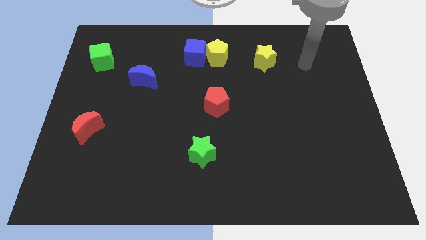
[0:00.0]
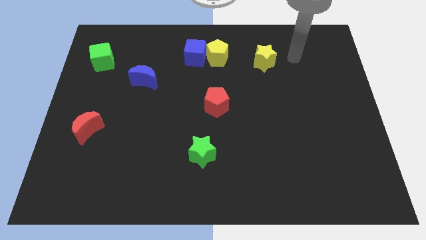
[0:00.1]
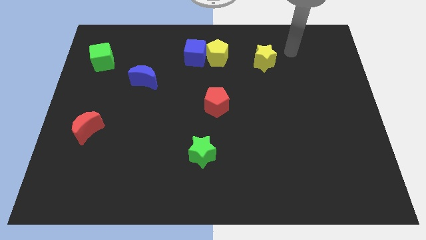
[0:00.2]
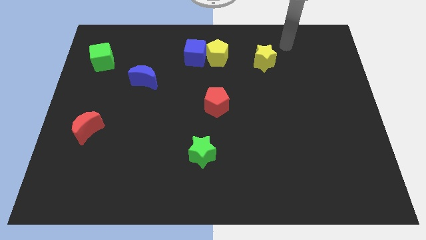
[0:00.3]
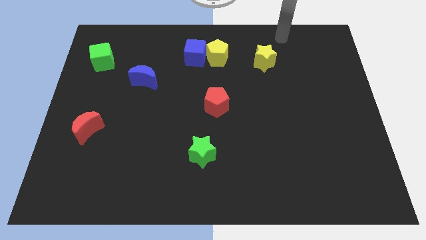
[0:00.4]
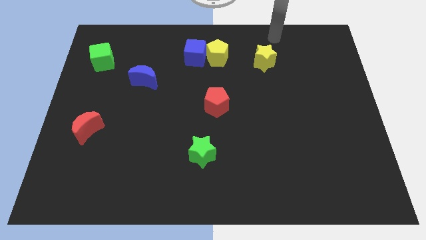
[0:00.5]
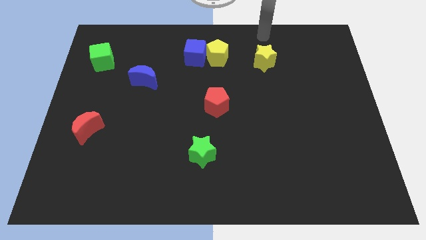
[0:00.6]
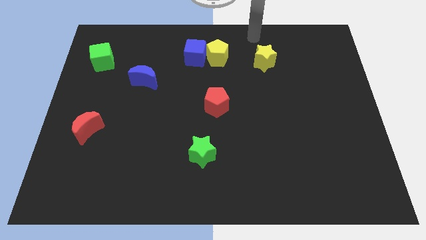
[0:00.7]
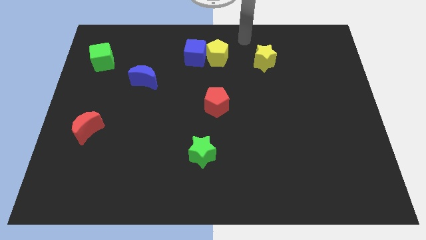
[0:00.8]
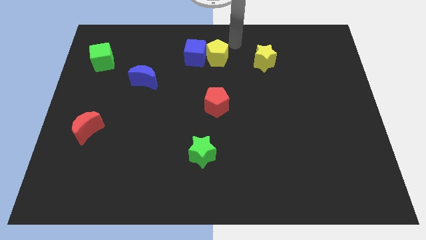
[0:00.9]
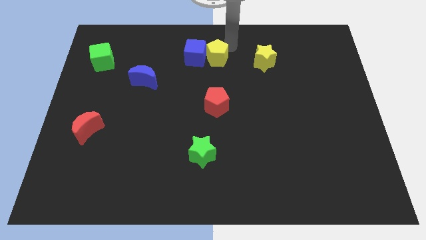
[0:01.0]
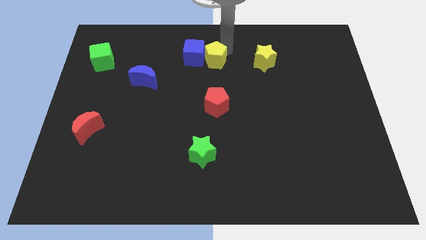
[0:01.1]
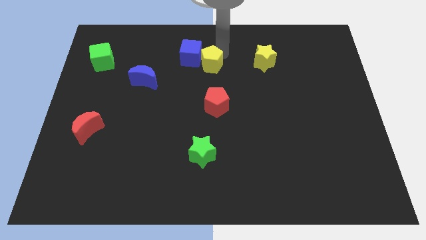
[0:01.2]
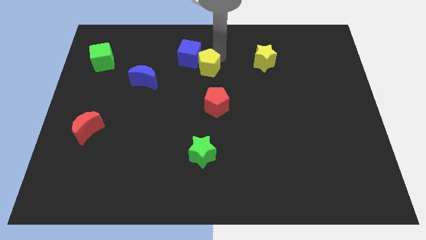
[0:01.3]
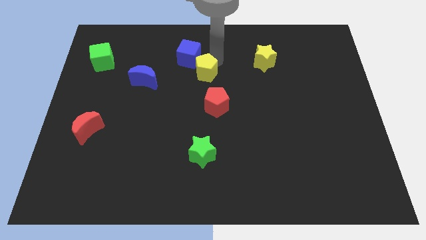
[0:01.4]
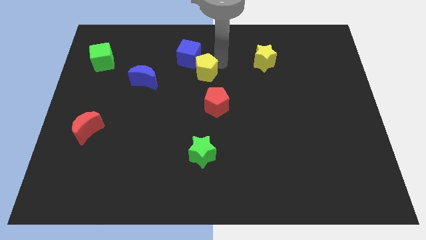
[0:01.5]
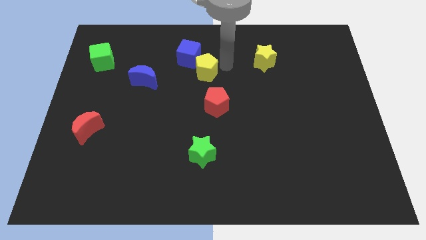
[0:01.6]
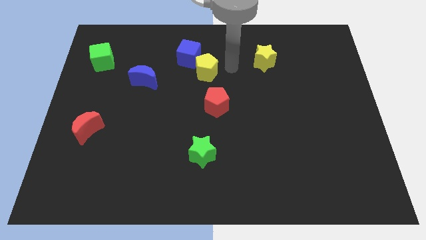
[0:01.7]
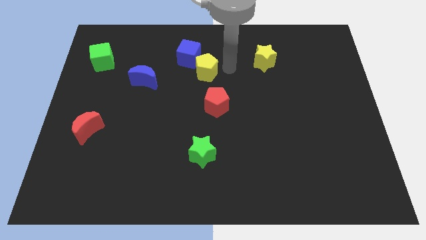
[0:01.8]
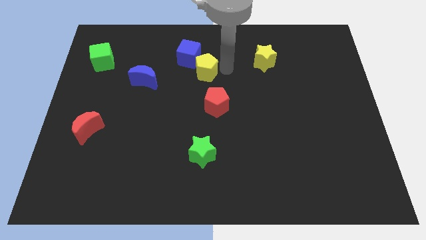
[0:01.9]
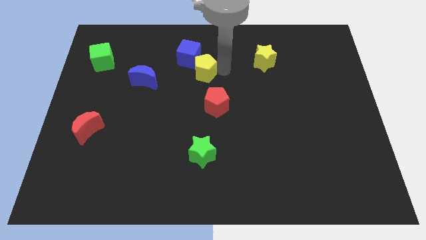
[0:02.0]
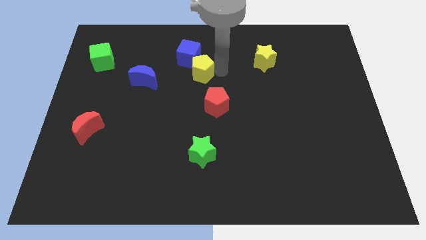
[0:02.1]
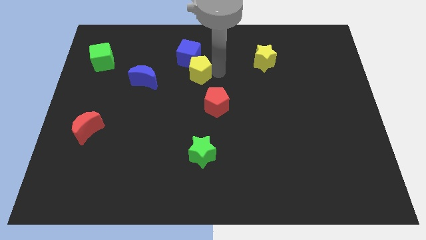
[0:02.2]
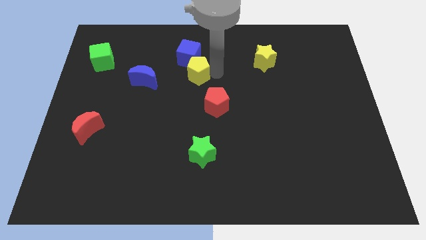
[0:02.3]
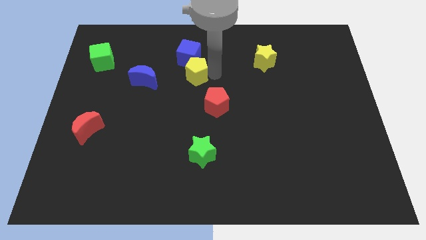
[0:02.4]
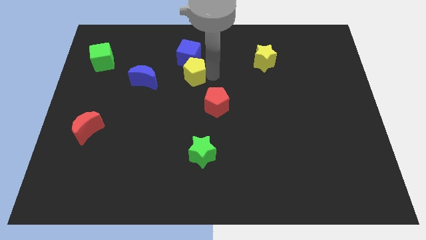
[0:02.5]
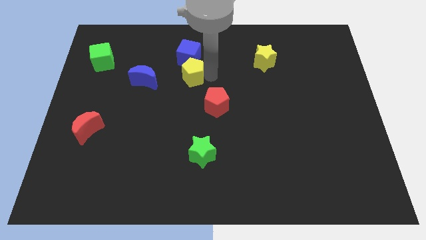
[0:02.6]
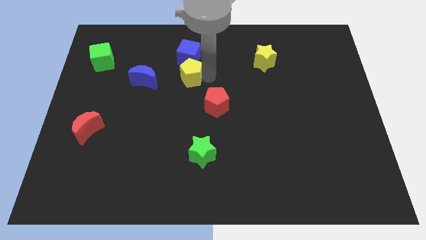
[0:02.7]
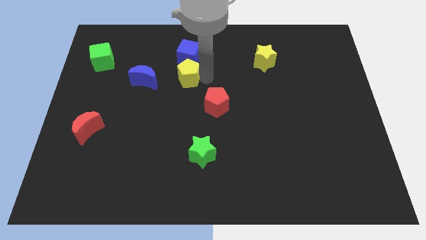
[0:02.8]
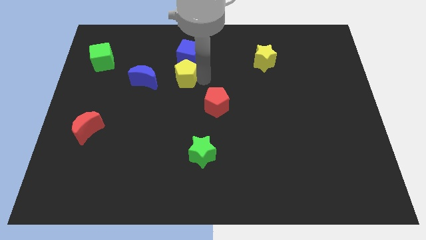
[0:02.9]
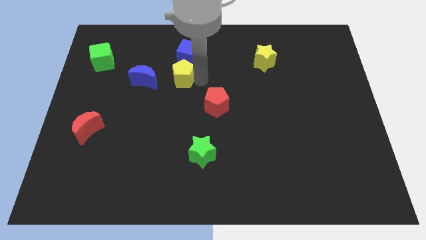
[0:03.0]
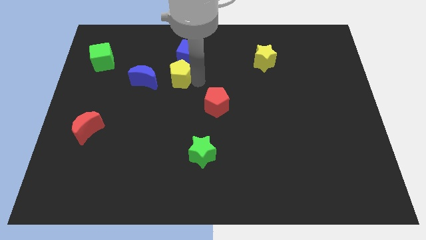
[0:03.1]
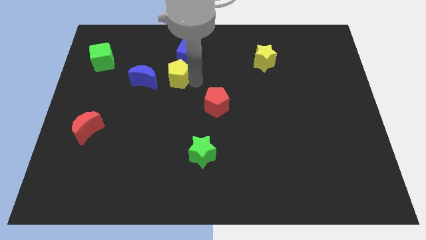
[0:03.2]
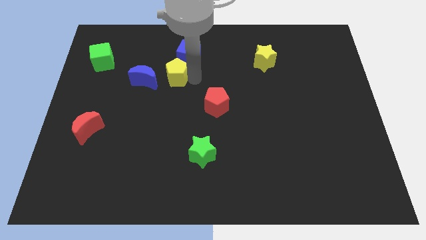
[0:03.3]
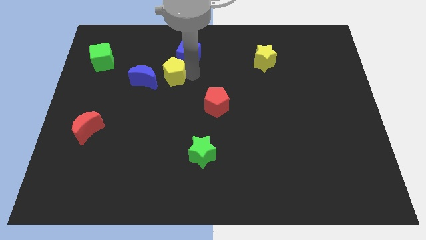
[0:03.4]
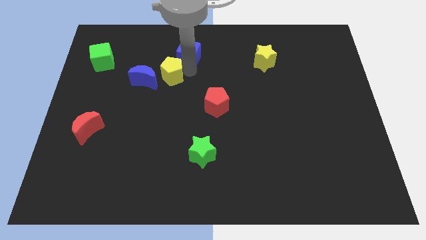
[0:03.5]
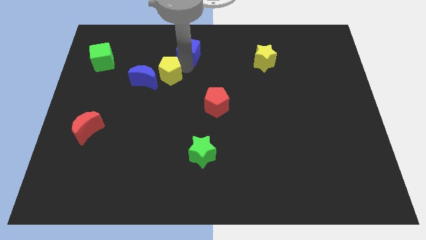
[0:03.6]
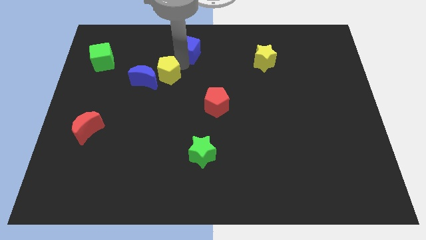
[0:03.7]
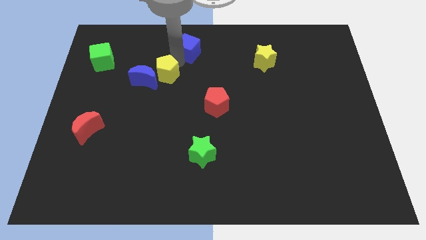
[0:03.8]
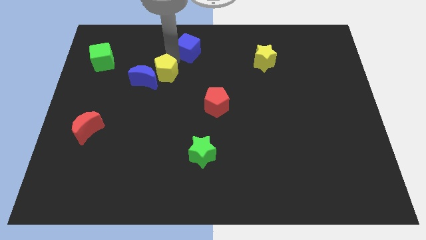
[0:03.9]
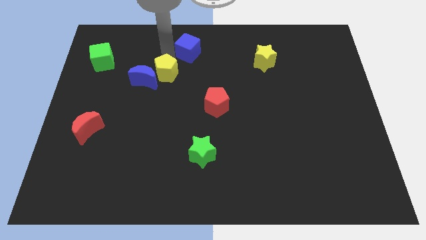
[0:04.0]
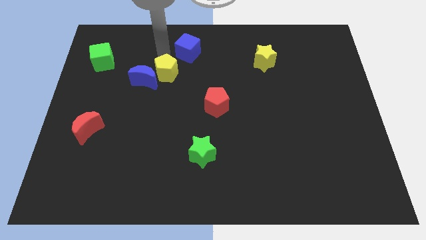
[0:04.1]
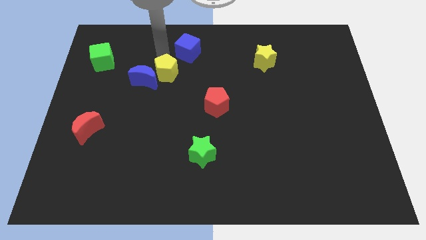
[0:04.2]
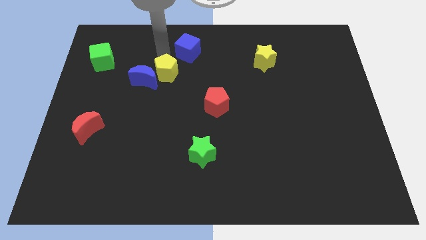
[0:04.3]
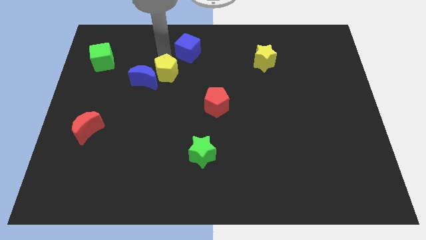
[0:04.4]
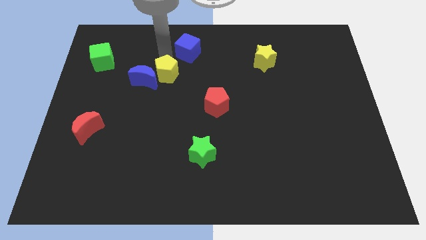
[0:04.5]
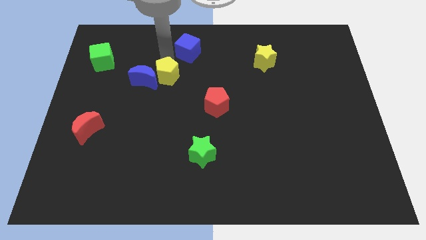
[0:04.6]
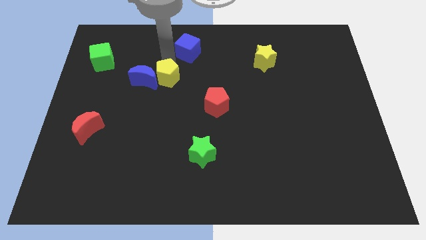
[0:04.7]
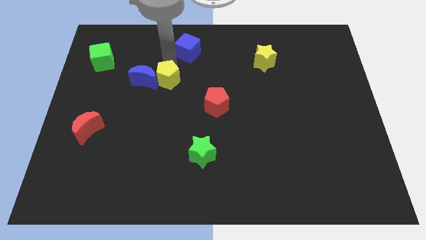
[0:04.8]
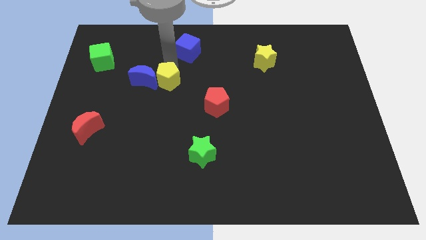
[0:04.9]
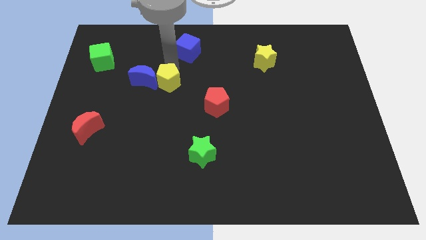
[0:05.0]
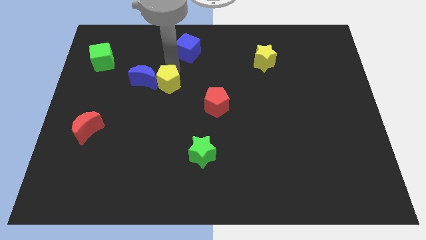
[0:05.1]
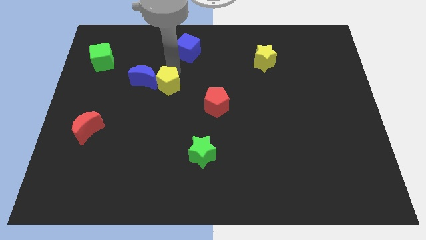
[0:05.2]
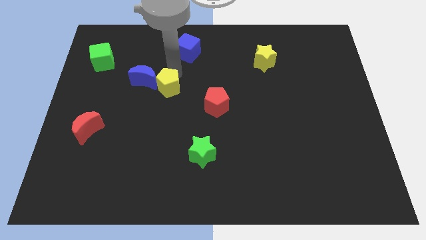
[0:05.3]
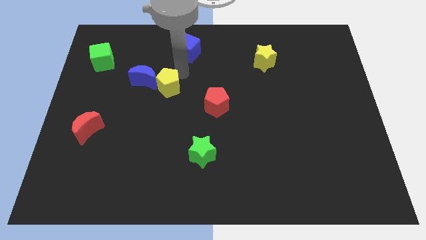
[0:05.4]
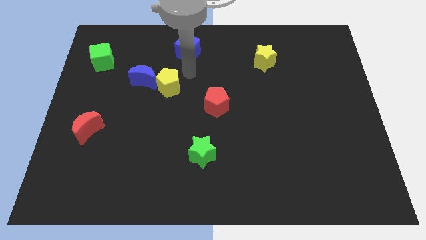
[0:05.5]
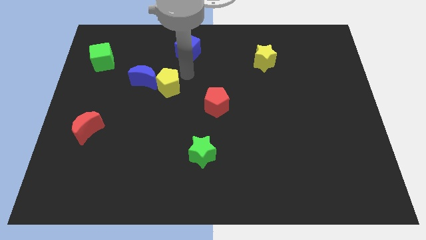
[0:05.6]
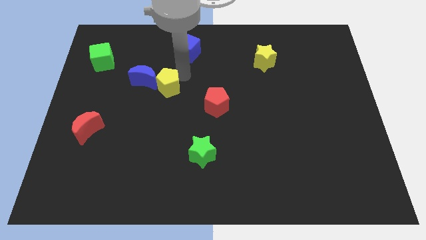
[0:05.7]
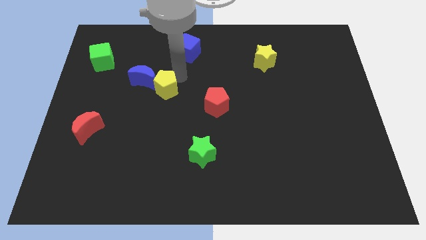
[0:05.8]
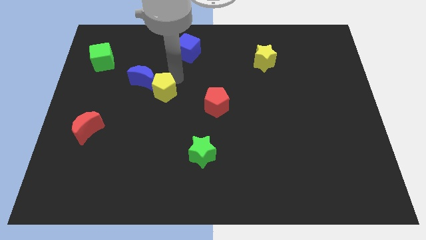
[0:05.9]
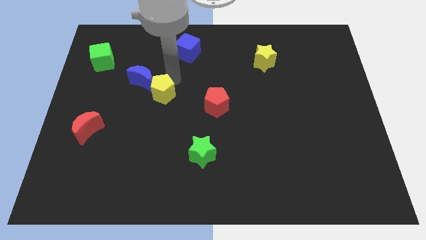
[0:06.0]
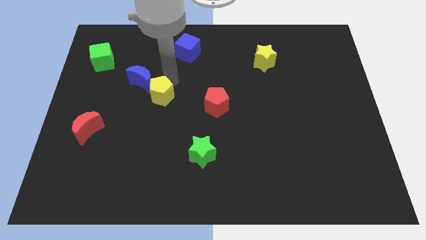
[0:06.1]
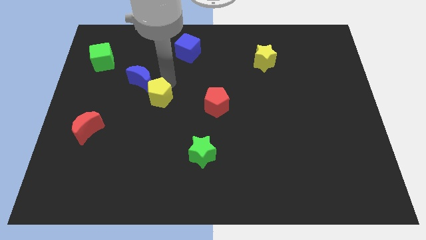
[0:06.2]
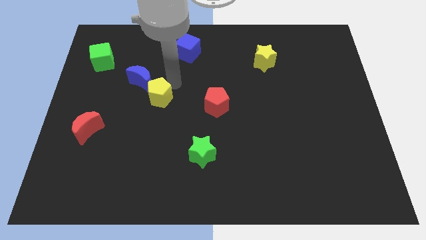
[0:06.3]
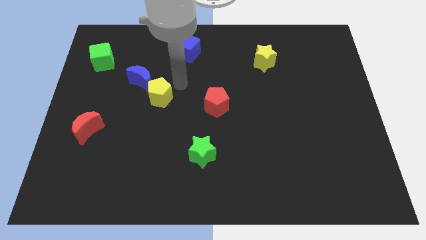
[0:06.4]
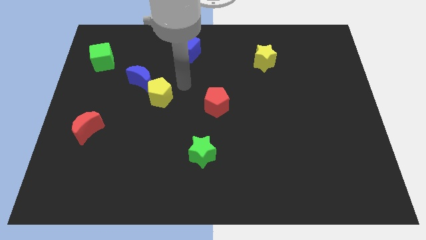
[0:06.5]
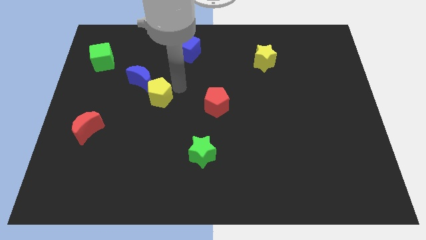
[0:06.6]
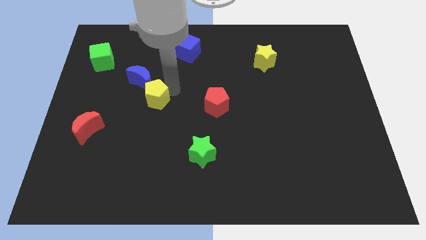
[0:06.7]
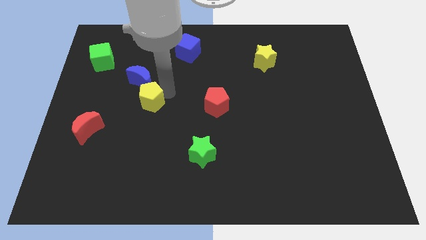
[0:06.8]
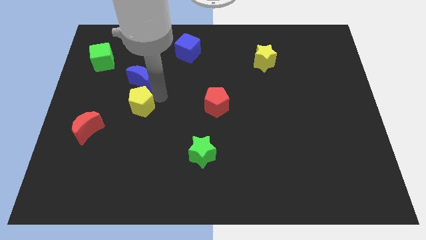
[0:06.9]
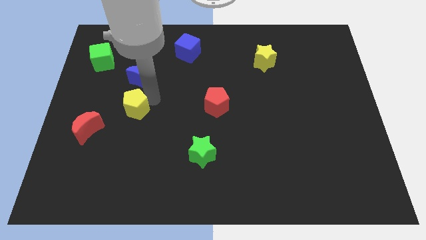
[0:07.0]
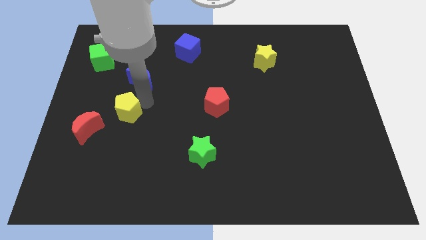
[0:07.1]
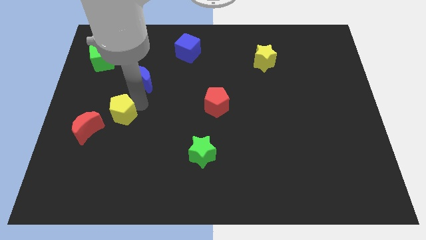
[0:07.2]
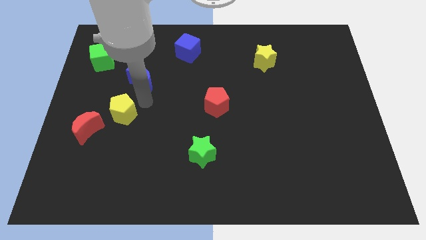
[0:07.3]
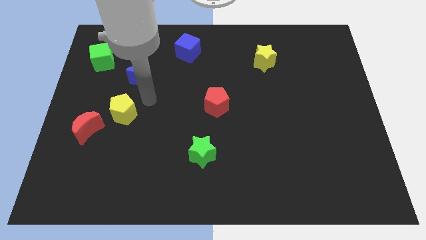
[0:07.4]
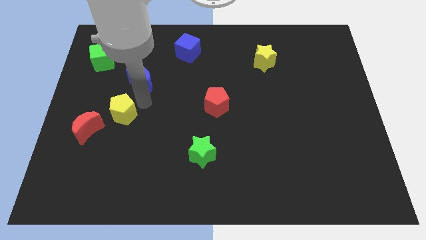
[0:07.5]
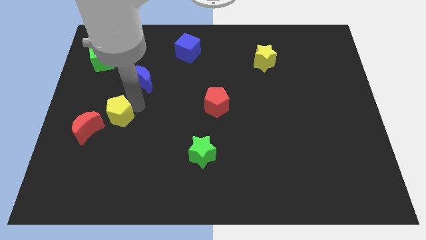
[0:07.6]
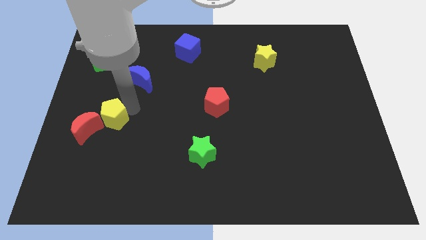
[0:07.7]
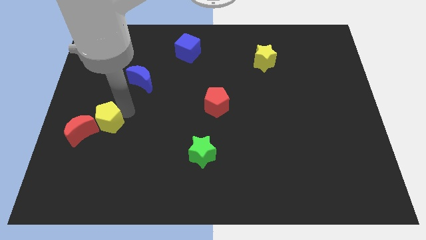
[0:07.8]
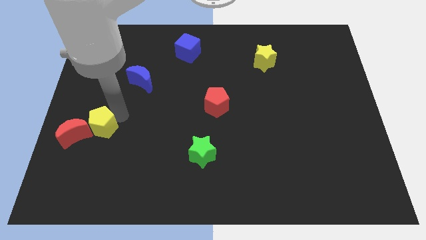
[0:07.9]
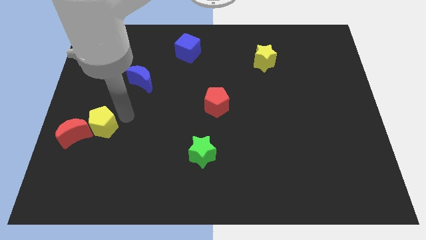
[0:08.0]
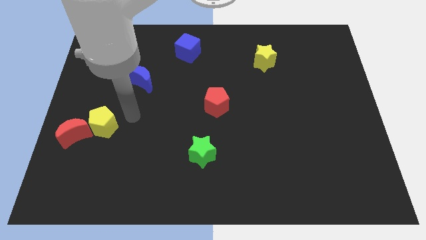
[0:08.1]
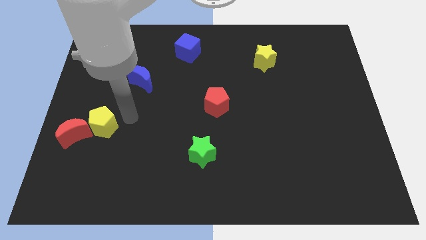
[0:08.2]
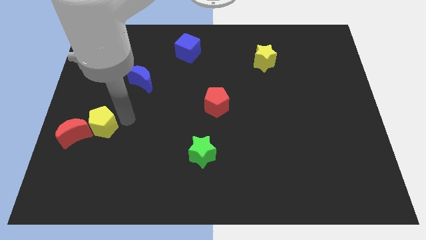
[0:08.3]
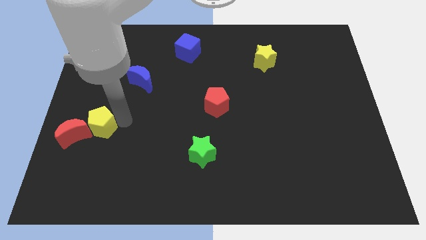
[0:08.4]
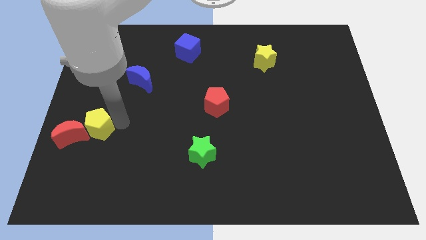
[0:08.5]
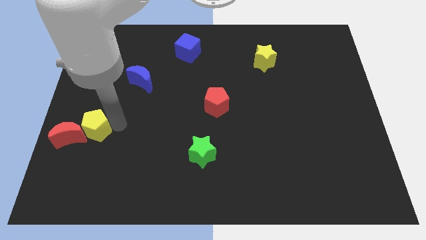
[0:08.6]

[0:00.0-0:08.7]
move the yellow pentagon to the red moon
